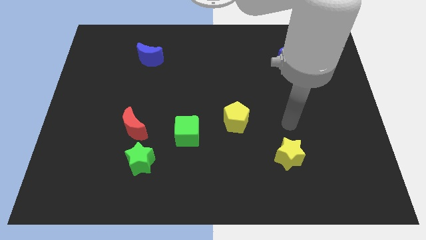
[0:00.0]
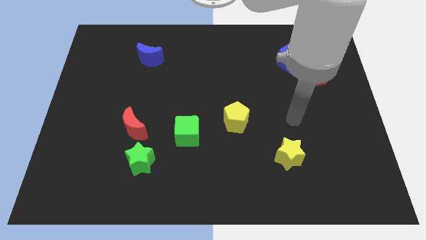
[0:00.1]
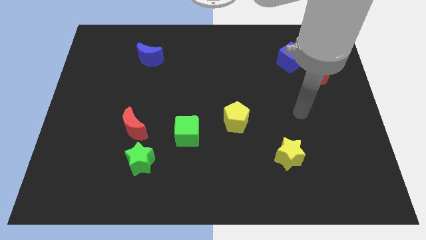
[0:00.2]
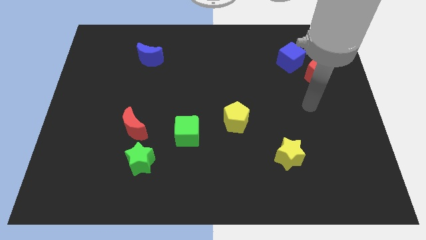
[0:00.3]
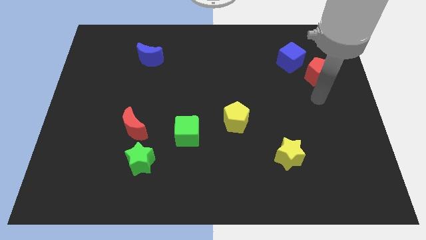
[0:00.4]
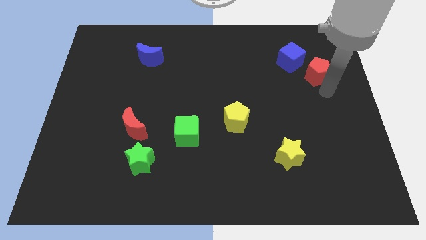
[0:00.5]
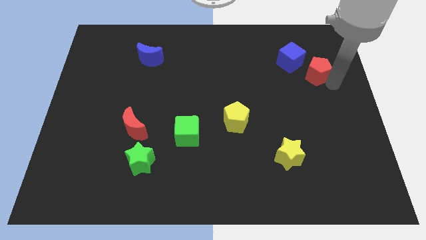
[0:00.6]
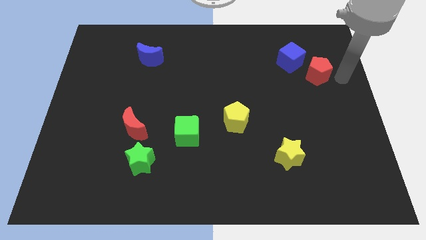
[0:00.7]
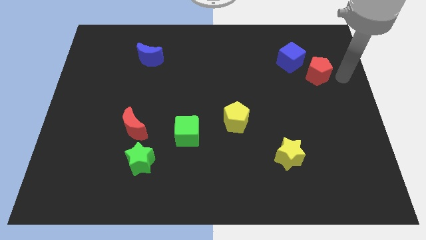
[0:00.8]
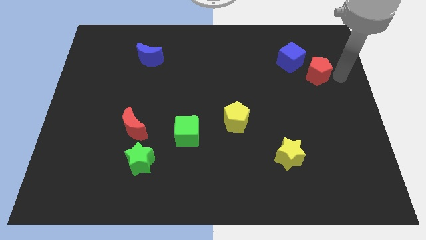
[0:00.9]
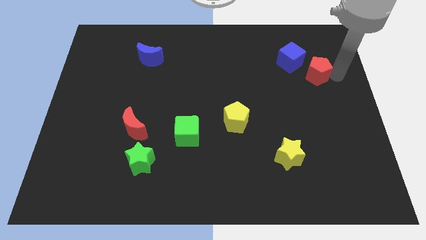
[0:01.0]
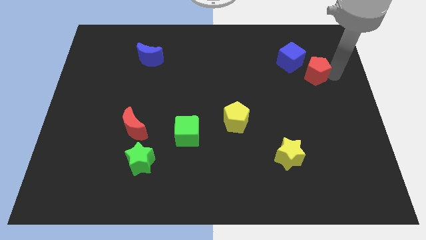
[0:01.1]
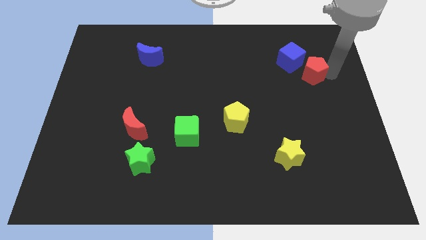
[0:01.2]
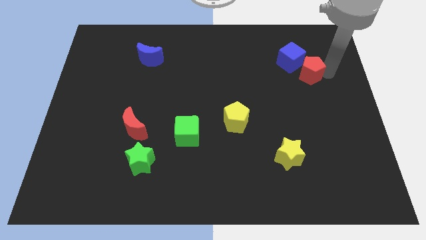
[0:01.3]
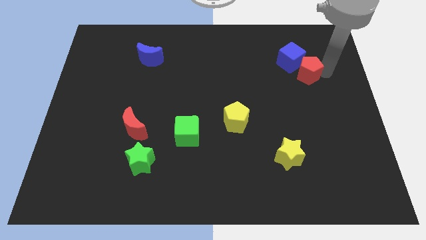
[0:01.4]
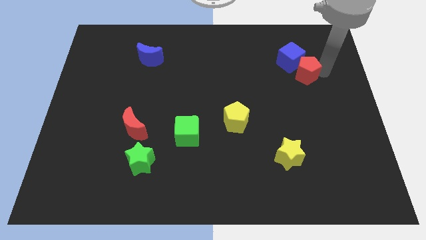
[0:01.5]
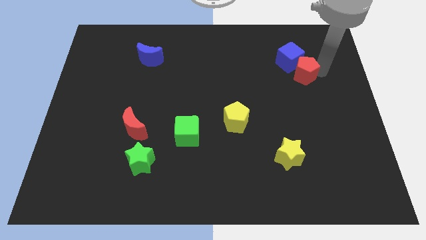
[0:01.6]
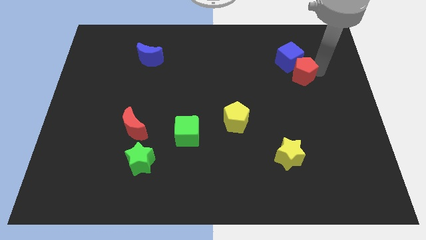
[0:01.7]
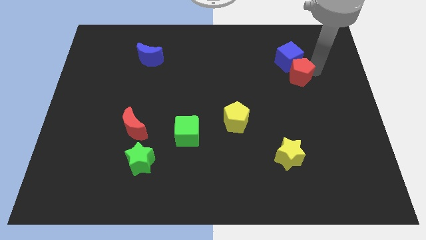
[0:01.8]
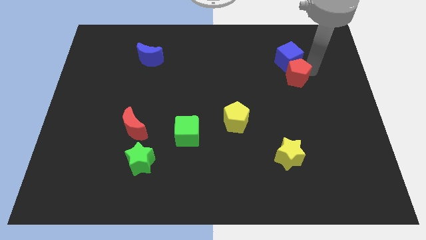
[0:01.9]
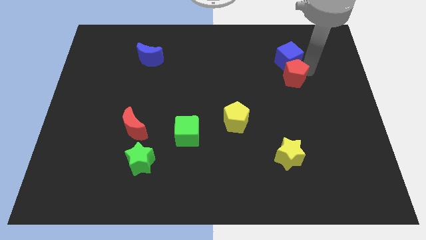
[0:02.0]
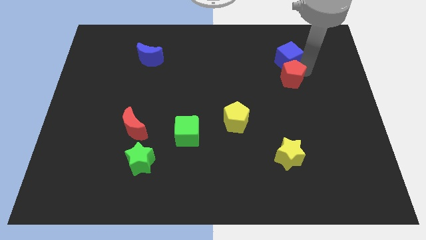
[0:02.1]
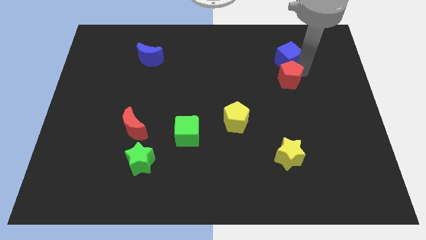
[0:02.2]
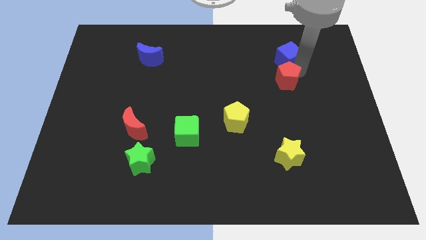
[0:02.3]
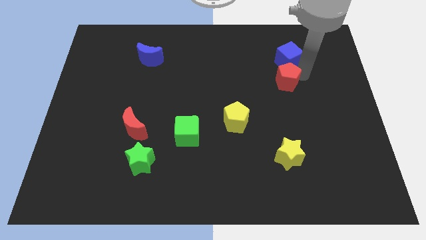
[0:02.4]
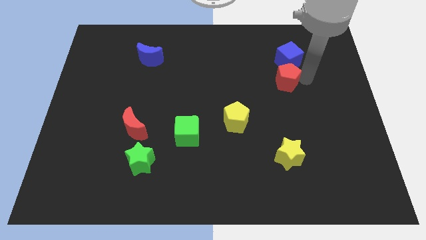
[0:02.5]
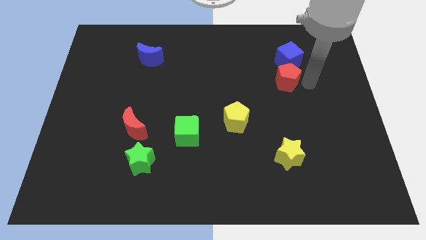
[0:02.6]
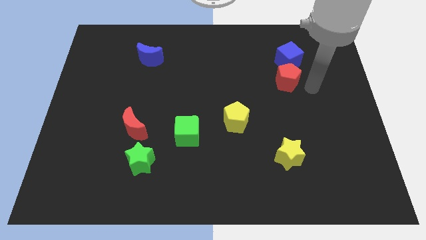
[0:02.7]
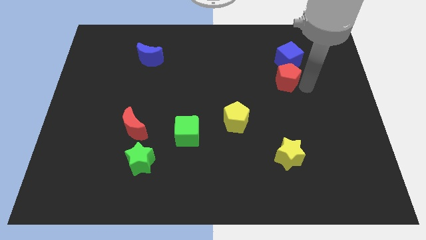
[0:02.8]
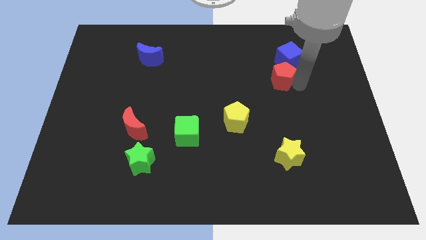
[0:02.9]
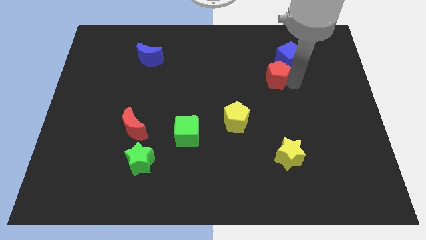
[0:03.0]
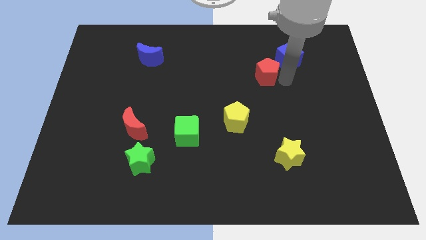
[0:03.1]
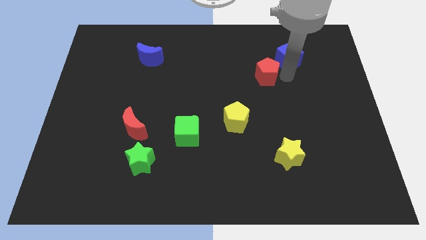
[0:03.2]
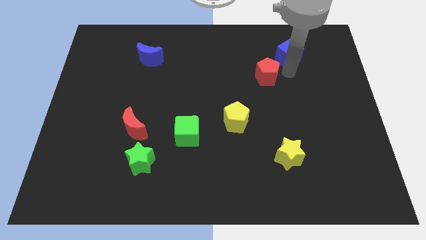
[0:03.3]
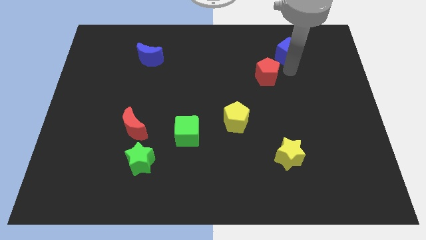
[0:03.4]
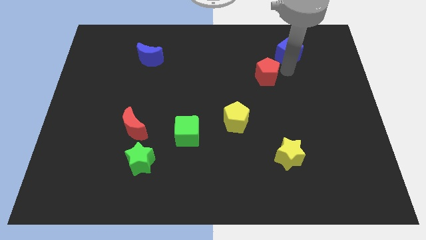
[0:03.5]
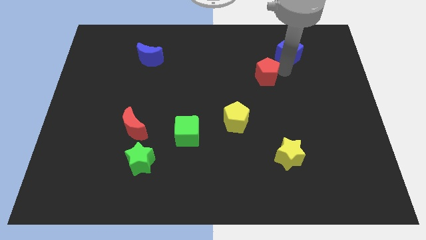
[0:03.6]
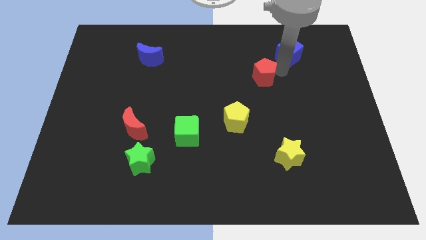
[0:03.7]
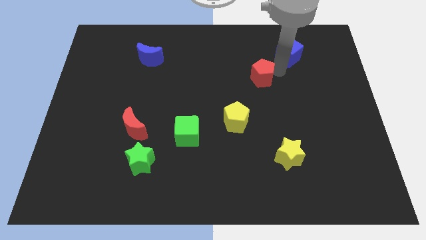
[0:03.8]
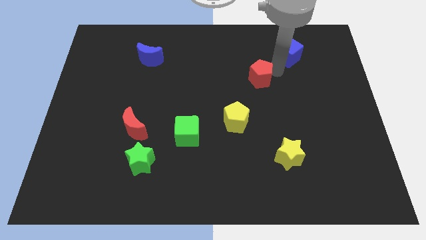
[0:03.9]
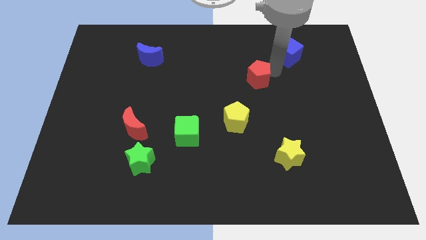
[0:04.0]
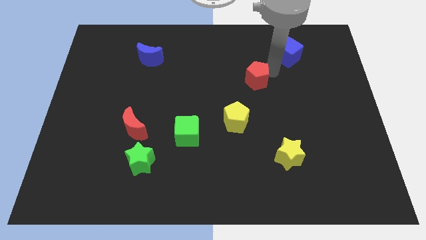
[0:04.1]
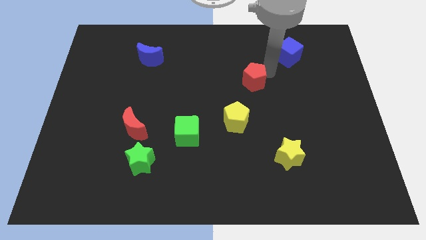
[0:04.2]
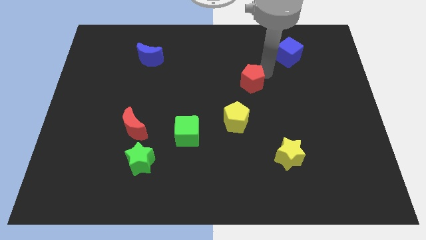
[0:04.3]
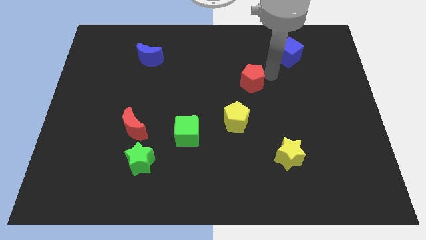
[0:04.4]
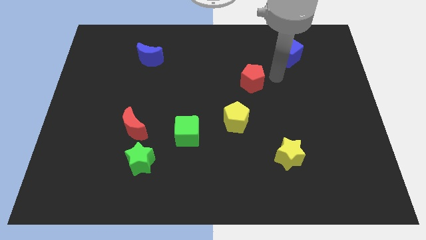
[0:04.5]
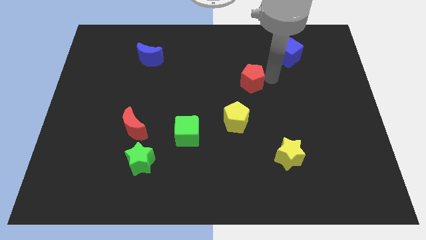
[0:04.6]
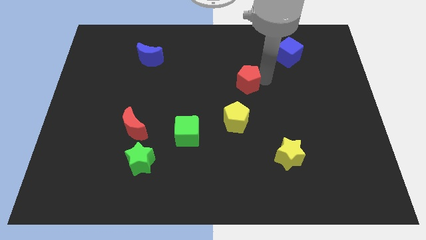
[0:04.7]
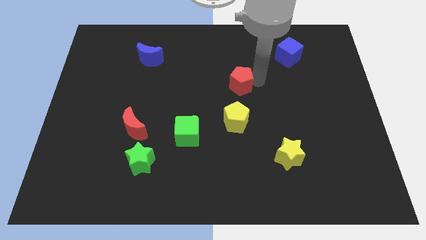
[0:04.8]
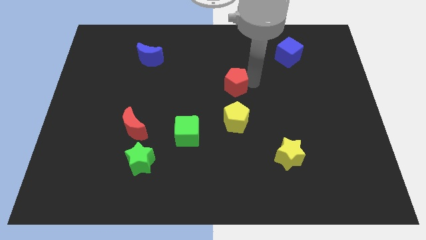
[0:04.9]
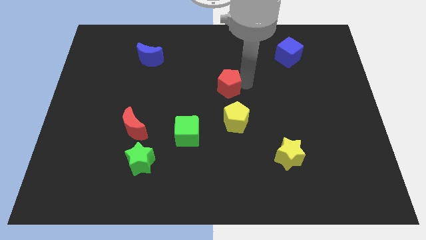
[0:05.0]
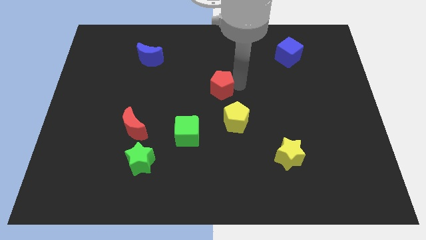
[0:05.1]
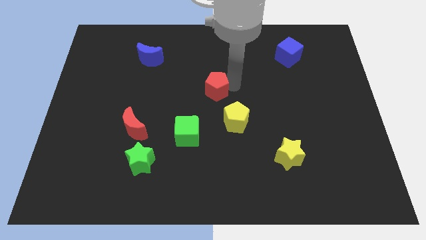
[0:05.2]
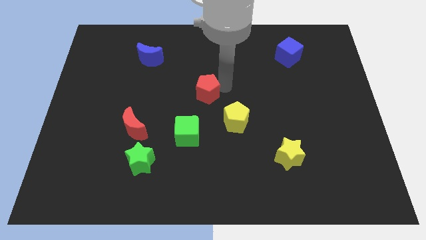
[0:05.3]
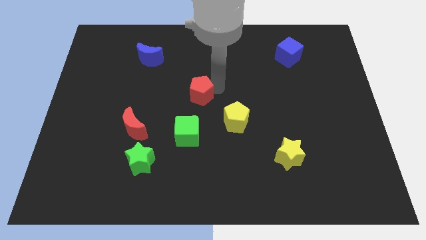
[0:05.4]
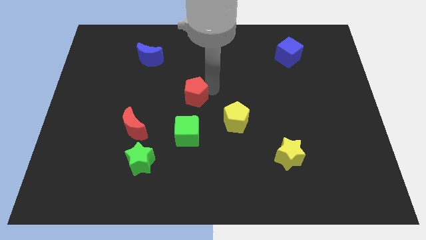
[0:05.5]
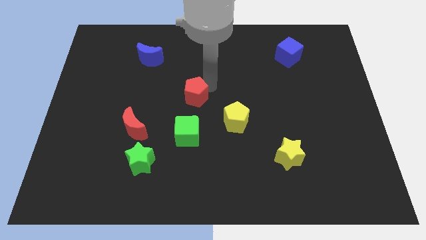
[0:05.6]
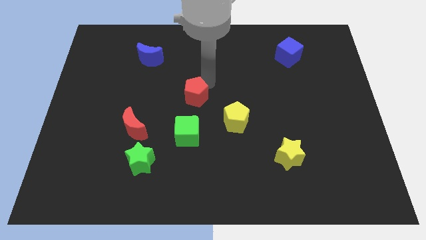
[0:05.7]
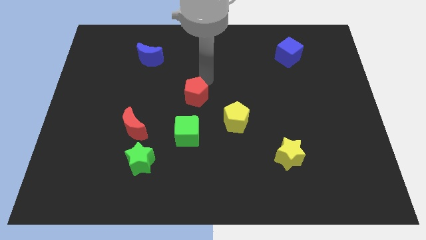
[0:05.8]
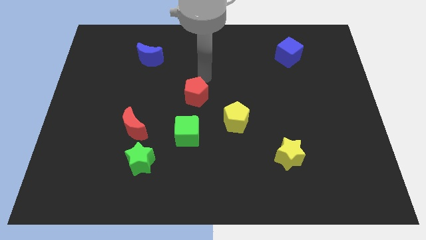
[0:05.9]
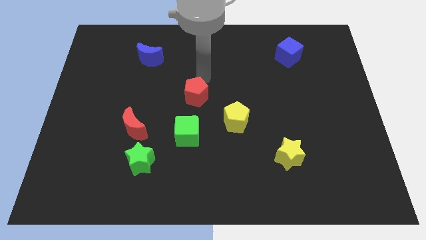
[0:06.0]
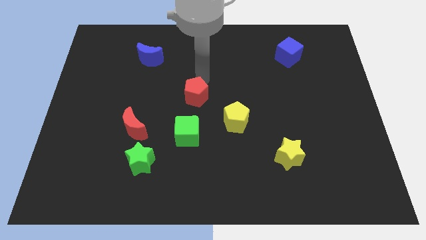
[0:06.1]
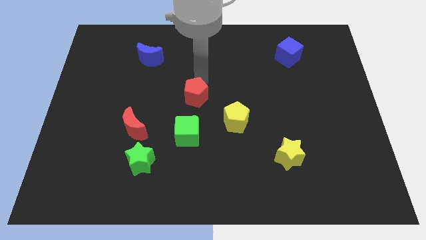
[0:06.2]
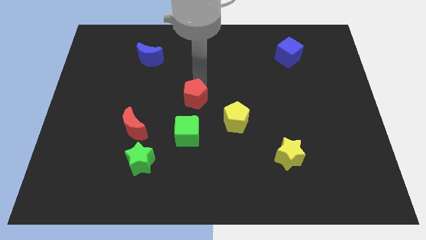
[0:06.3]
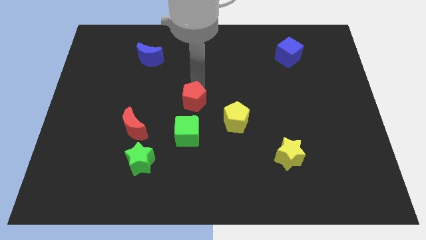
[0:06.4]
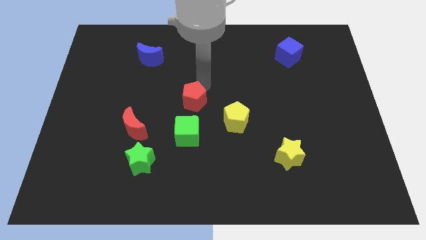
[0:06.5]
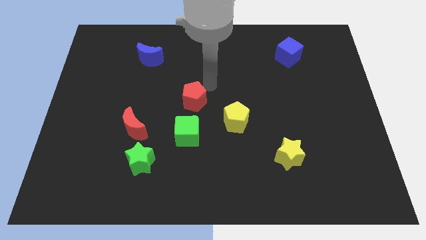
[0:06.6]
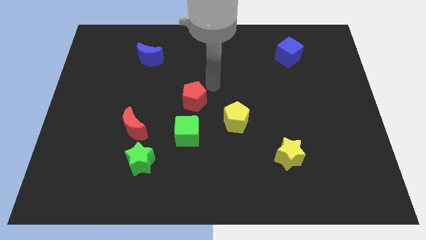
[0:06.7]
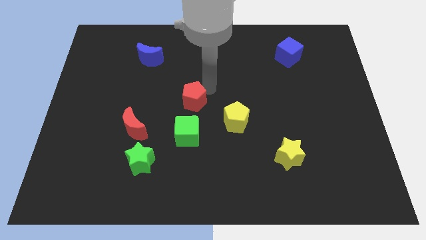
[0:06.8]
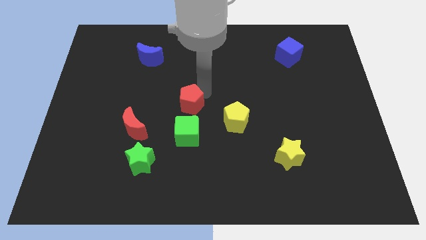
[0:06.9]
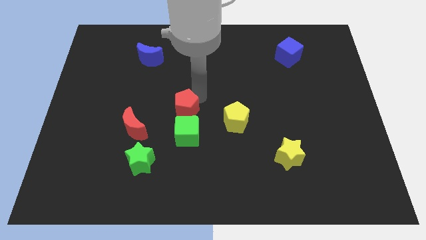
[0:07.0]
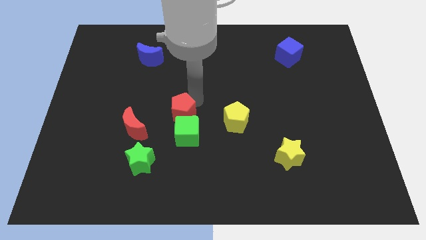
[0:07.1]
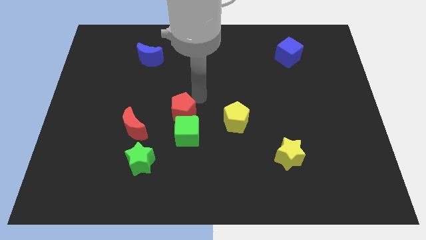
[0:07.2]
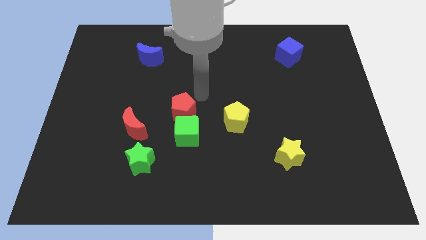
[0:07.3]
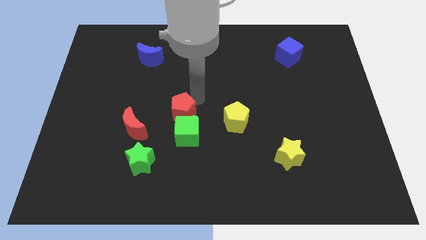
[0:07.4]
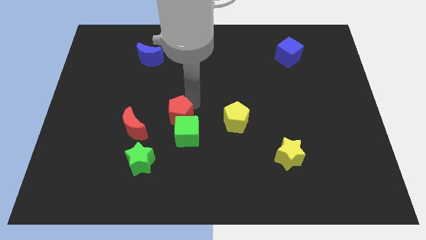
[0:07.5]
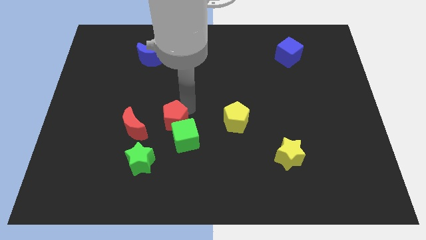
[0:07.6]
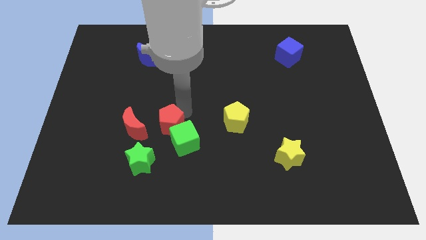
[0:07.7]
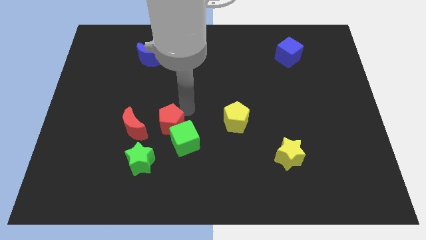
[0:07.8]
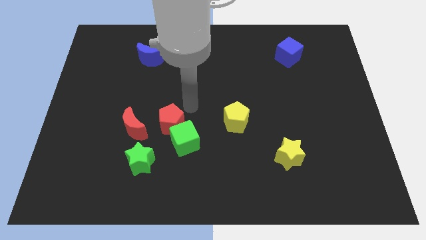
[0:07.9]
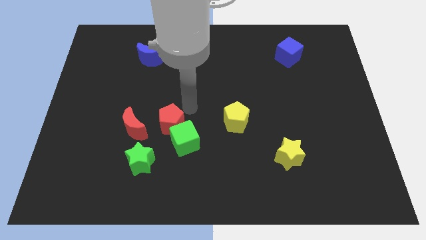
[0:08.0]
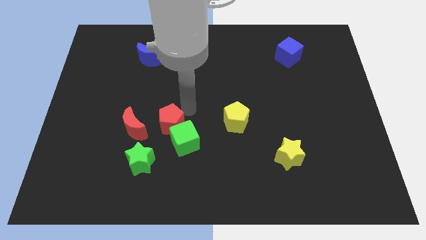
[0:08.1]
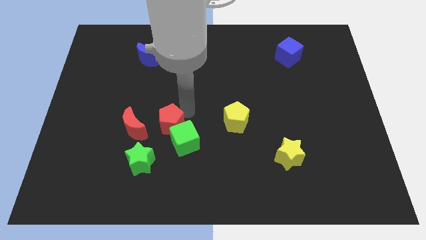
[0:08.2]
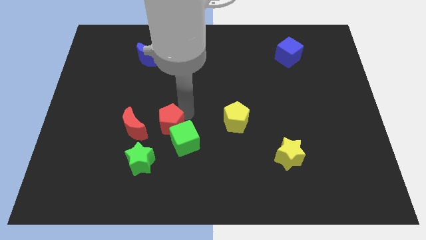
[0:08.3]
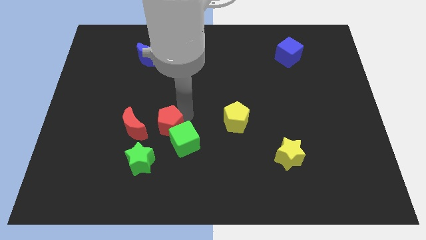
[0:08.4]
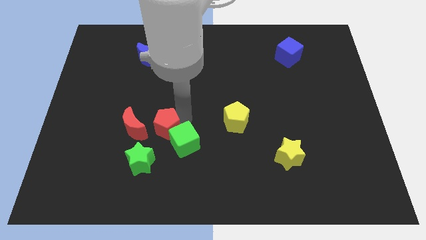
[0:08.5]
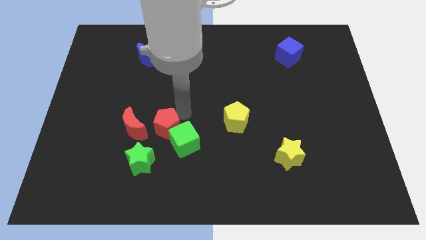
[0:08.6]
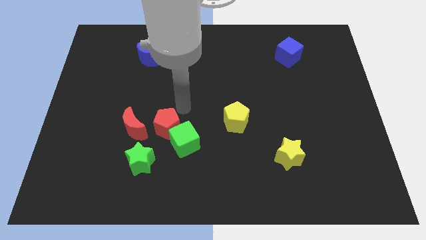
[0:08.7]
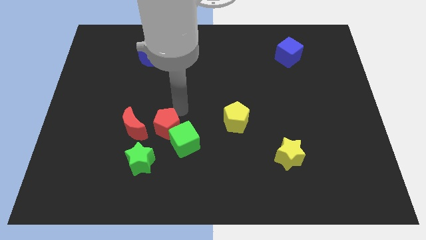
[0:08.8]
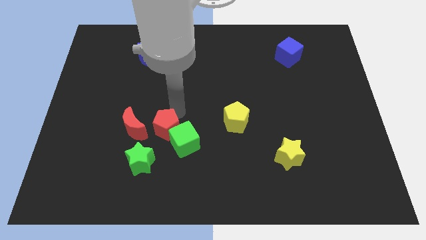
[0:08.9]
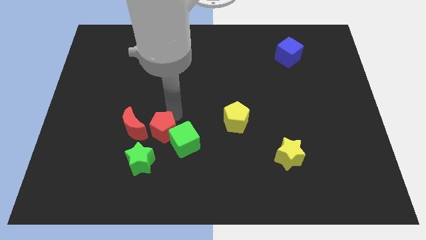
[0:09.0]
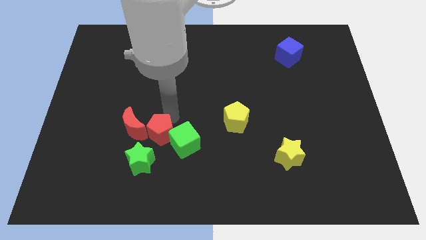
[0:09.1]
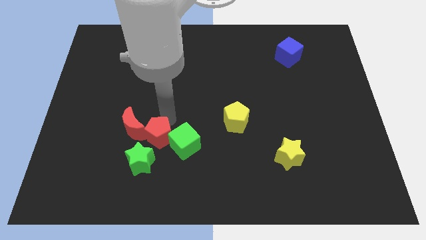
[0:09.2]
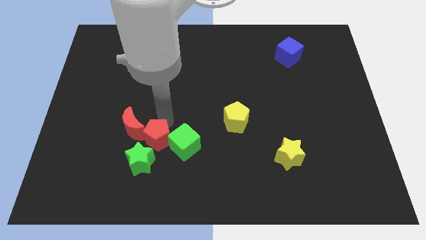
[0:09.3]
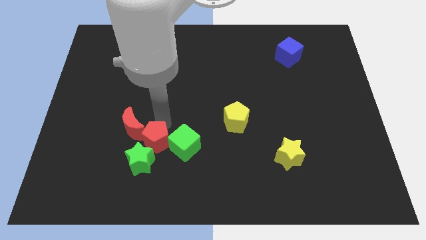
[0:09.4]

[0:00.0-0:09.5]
put the red pentagon to the green star
